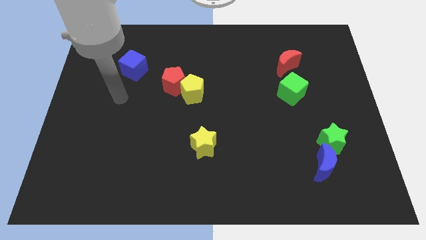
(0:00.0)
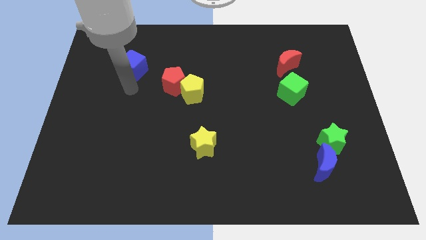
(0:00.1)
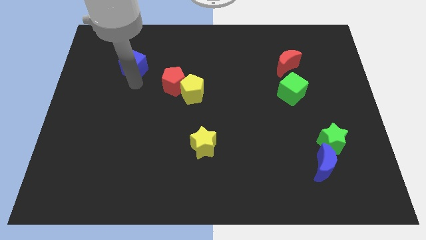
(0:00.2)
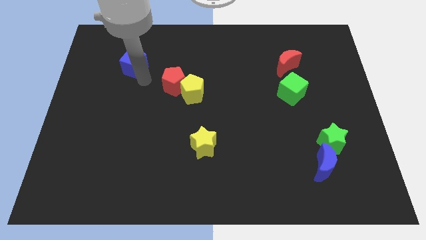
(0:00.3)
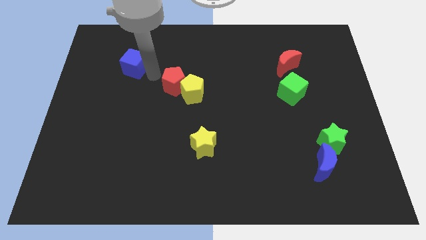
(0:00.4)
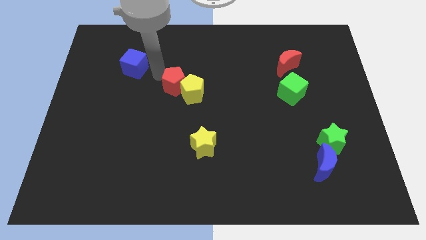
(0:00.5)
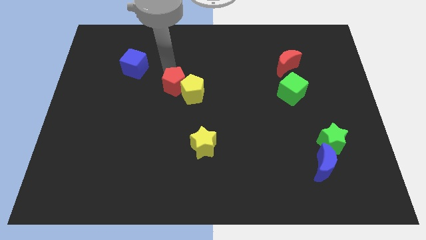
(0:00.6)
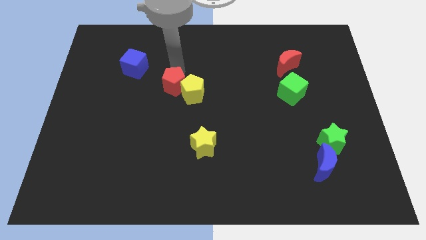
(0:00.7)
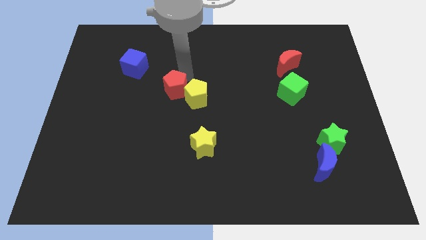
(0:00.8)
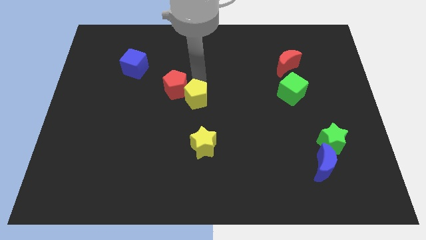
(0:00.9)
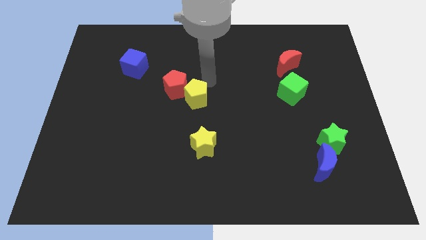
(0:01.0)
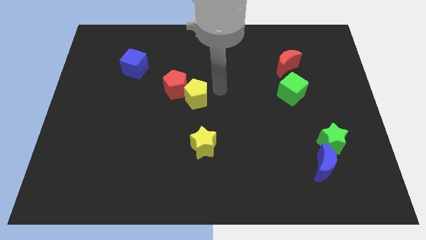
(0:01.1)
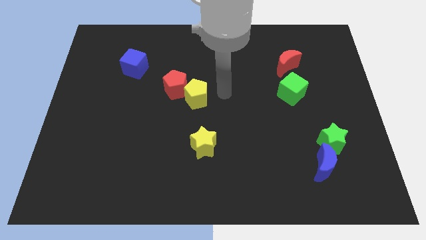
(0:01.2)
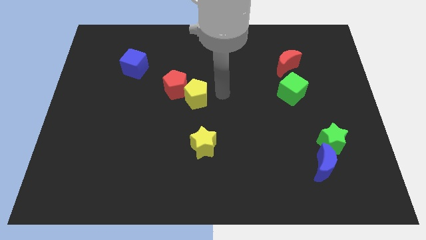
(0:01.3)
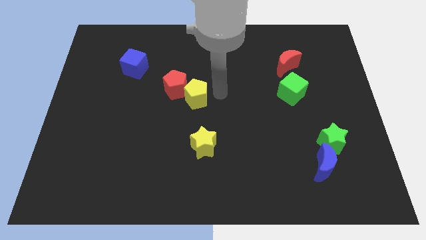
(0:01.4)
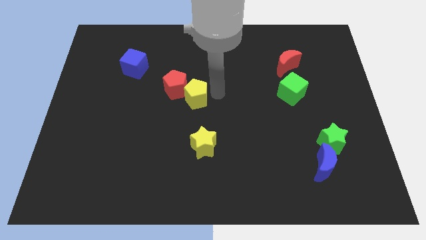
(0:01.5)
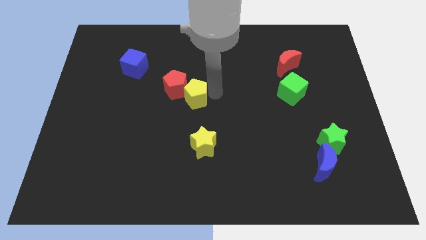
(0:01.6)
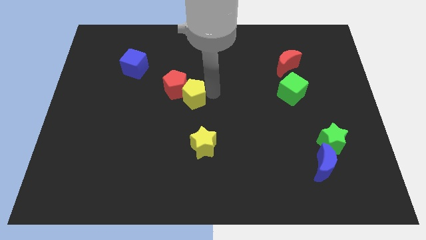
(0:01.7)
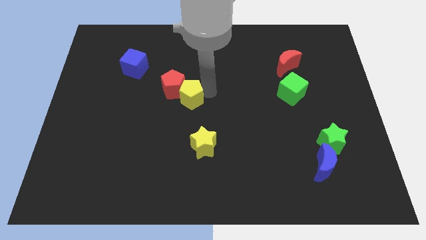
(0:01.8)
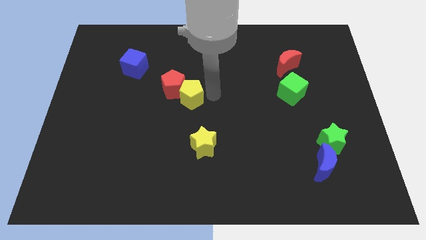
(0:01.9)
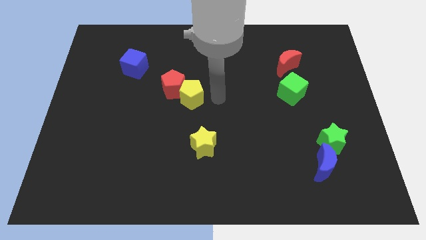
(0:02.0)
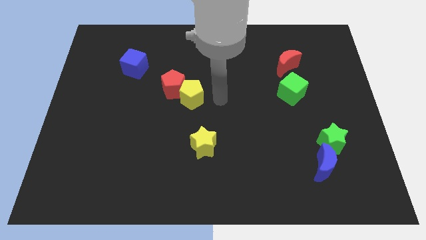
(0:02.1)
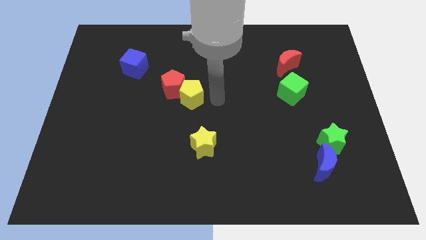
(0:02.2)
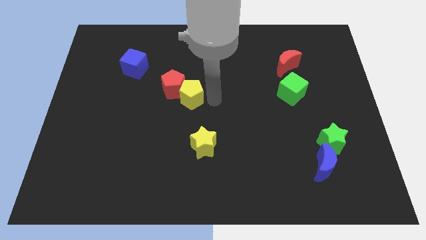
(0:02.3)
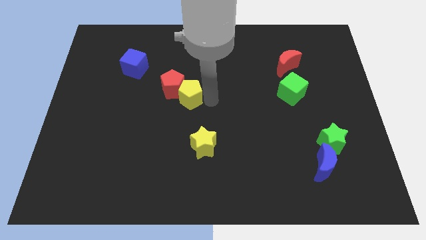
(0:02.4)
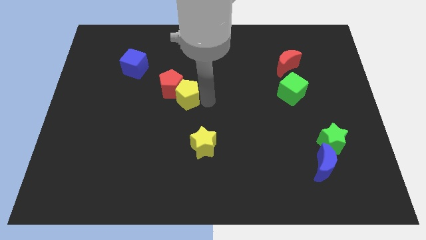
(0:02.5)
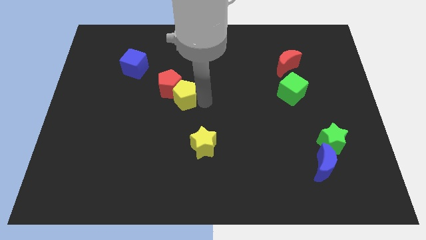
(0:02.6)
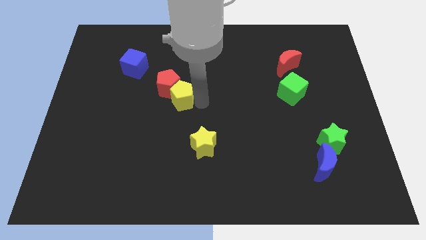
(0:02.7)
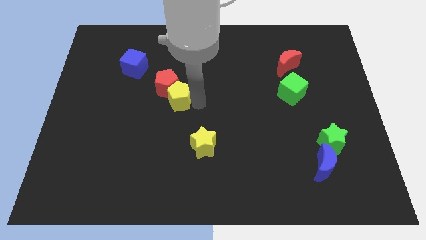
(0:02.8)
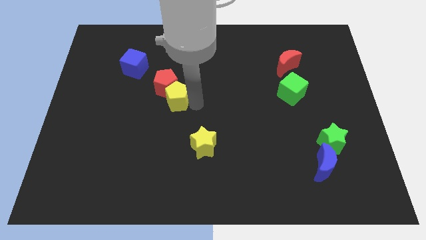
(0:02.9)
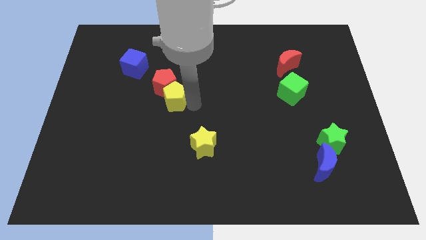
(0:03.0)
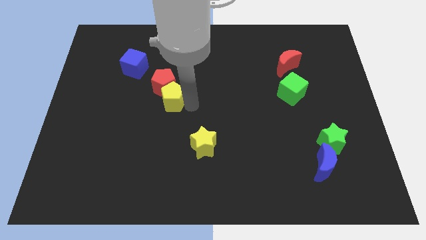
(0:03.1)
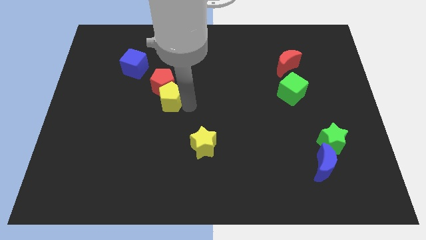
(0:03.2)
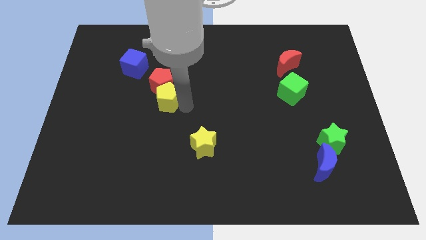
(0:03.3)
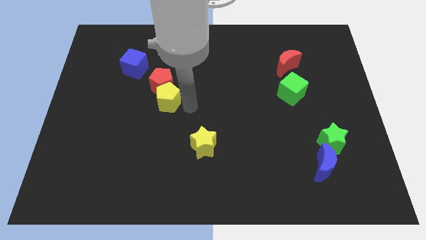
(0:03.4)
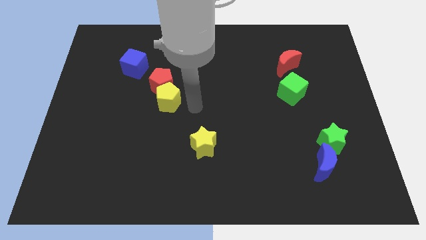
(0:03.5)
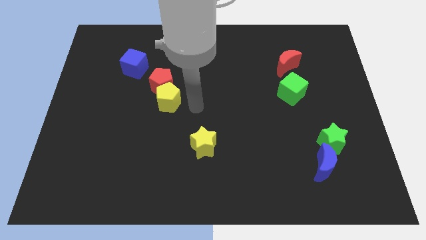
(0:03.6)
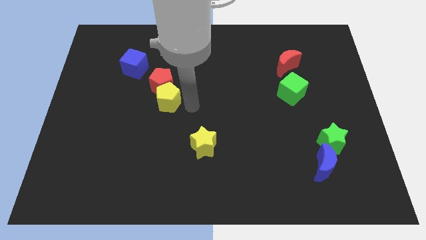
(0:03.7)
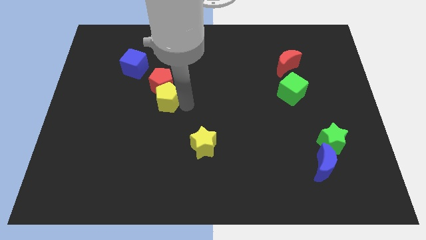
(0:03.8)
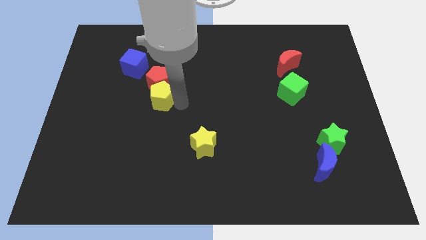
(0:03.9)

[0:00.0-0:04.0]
push the yellow pentagon to the left somewhat

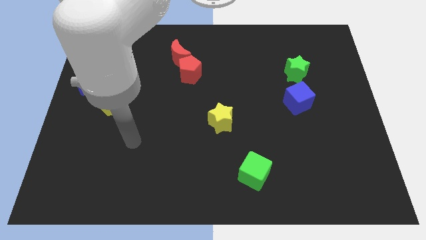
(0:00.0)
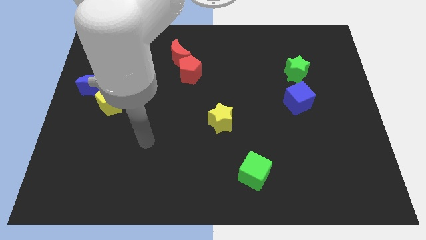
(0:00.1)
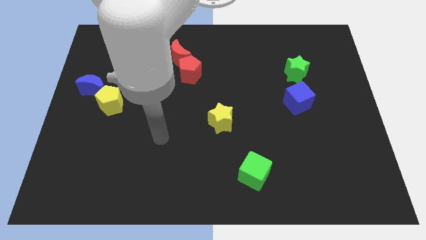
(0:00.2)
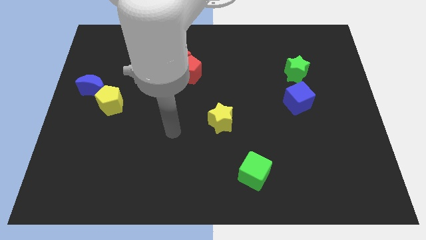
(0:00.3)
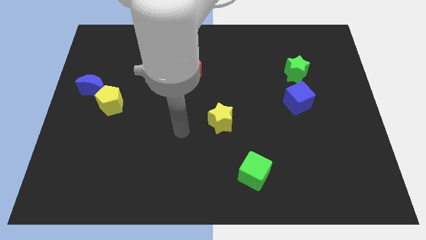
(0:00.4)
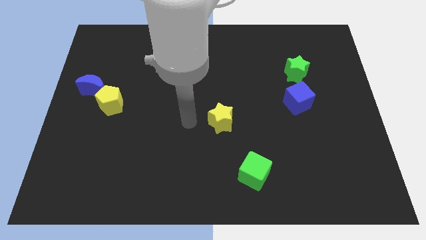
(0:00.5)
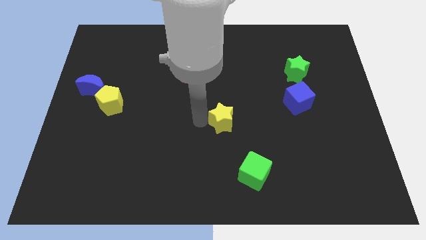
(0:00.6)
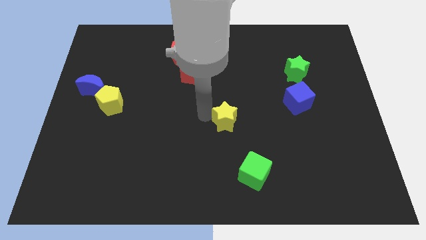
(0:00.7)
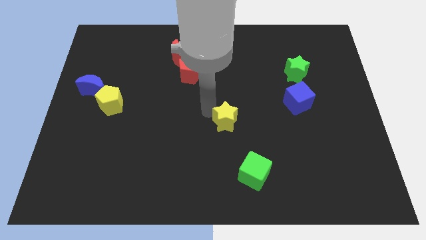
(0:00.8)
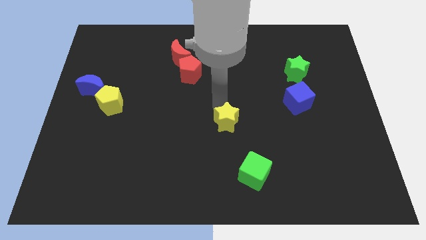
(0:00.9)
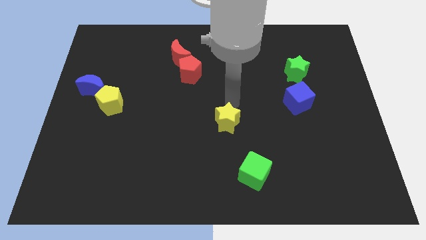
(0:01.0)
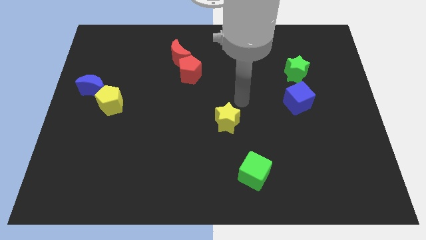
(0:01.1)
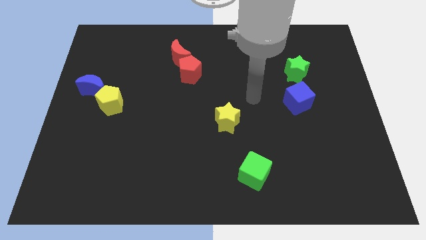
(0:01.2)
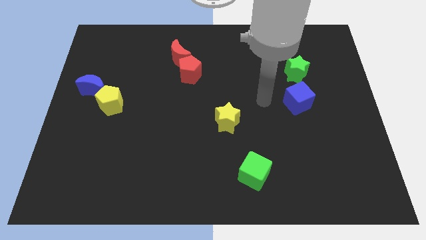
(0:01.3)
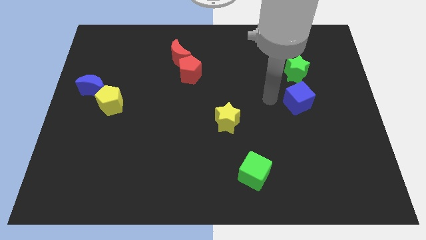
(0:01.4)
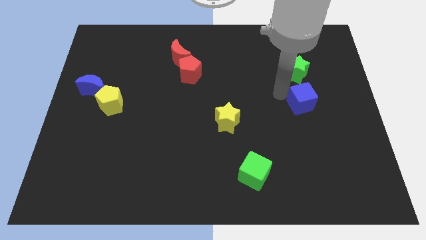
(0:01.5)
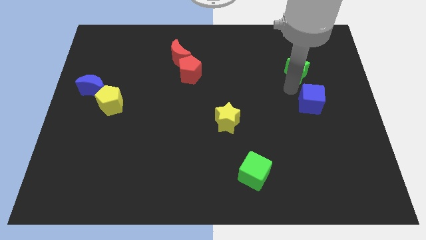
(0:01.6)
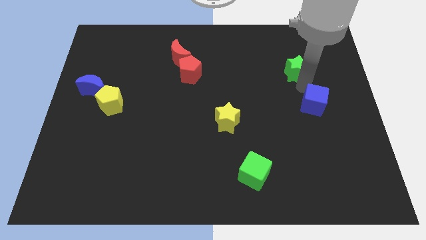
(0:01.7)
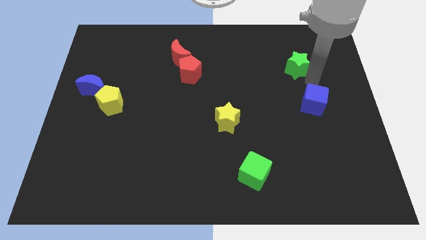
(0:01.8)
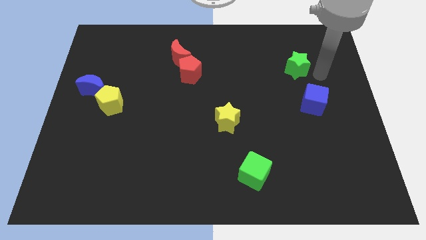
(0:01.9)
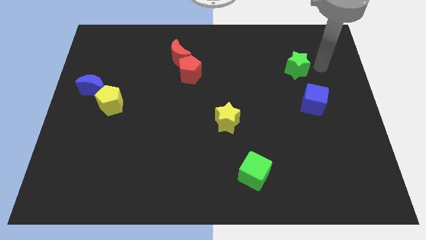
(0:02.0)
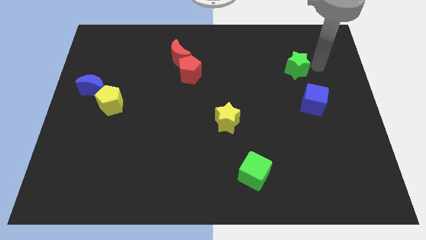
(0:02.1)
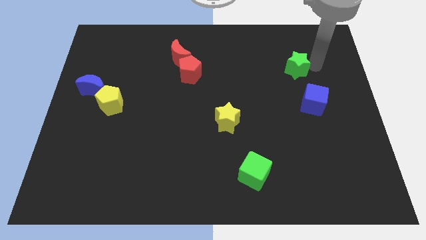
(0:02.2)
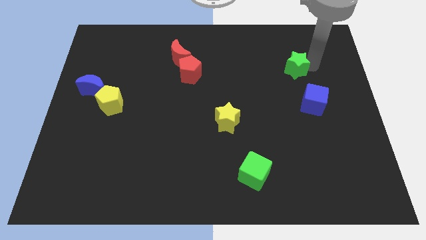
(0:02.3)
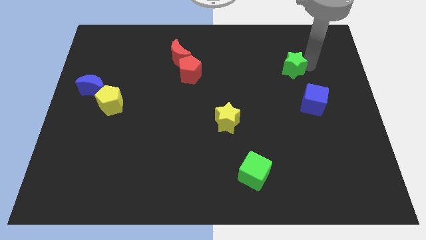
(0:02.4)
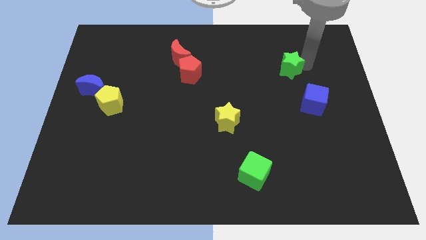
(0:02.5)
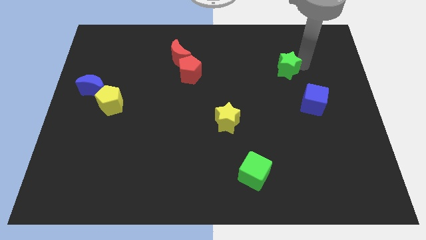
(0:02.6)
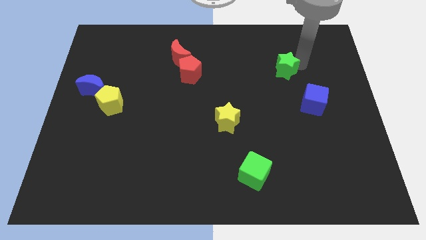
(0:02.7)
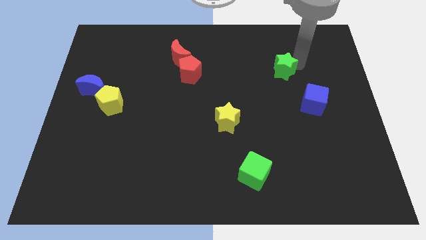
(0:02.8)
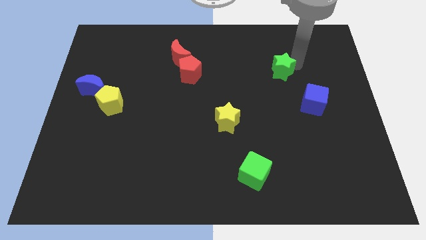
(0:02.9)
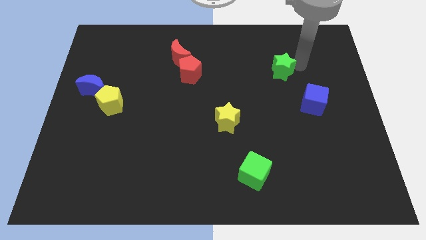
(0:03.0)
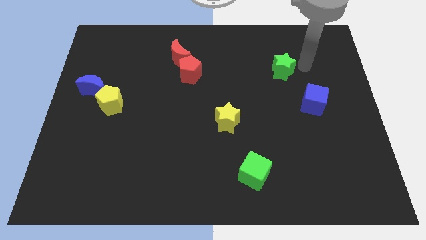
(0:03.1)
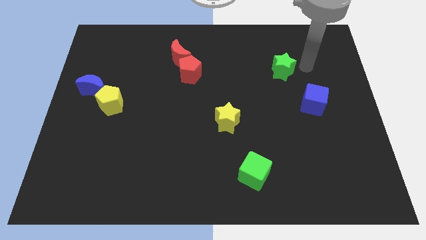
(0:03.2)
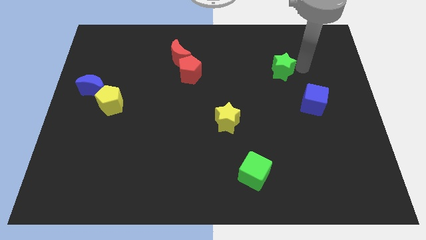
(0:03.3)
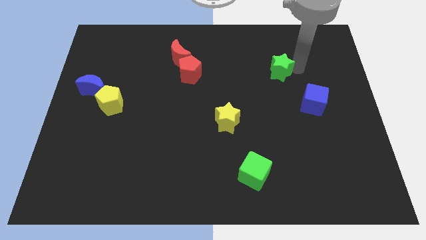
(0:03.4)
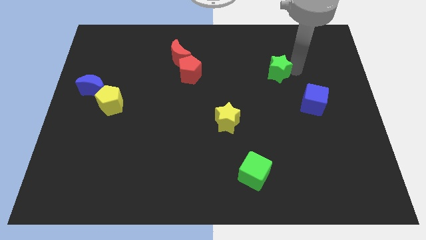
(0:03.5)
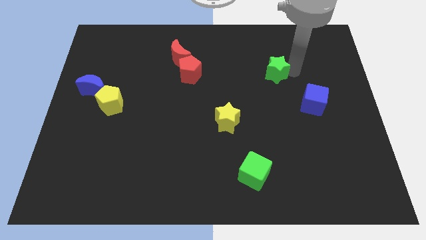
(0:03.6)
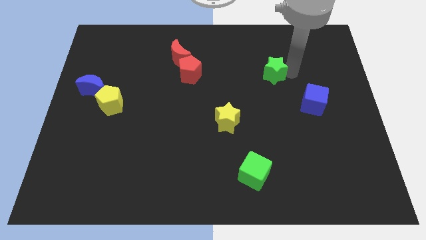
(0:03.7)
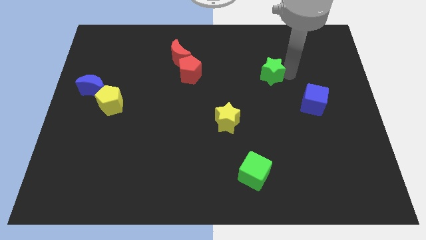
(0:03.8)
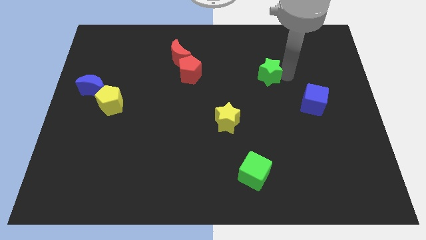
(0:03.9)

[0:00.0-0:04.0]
slightly slide the green star to the left

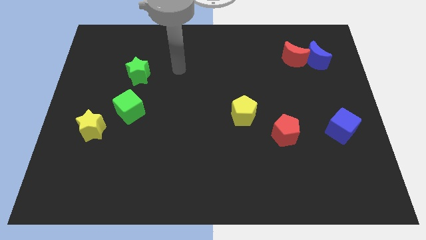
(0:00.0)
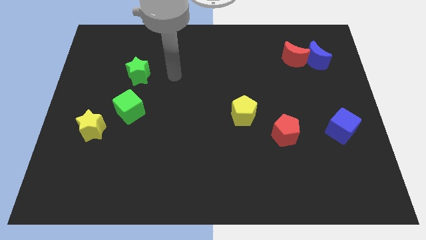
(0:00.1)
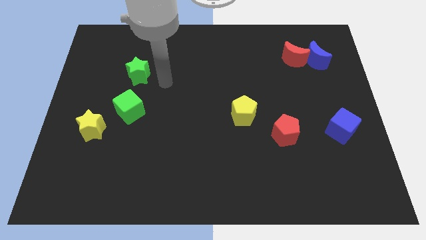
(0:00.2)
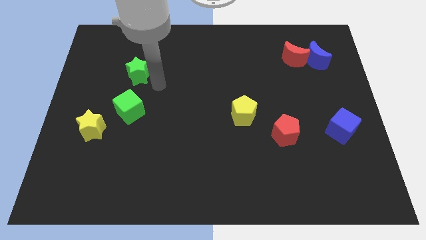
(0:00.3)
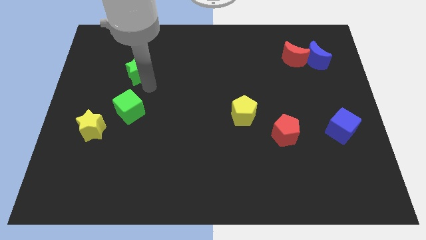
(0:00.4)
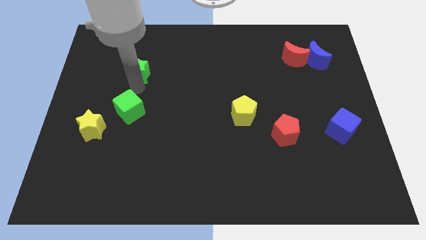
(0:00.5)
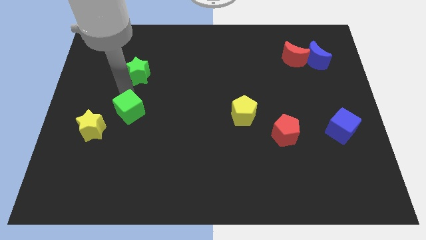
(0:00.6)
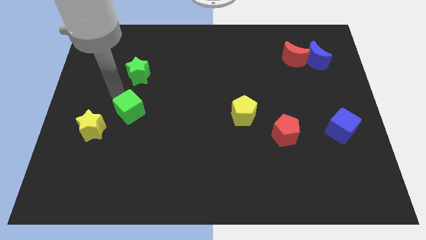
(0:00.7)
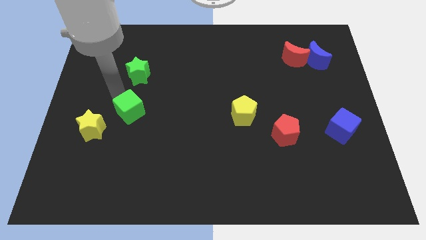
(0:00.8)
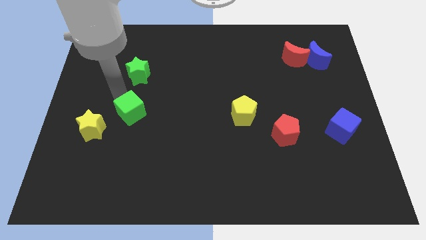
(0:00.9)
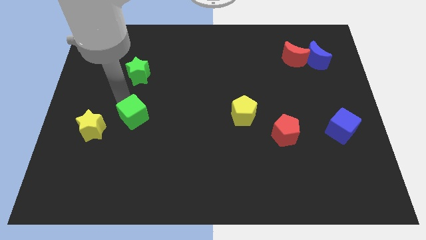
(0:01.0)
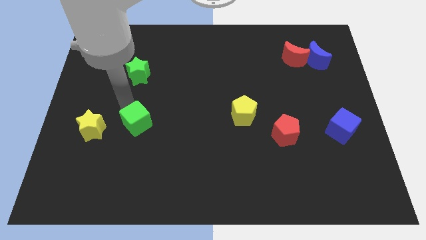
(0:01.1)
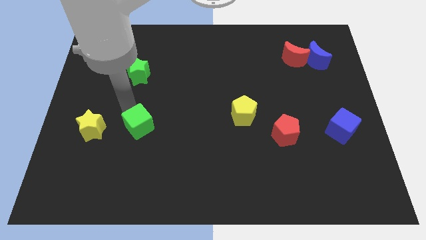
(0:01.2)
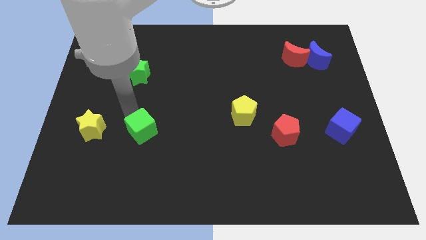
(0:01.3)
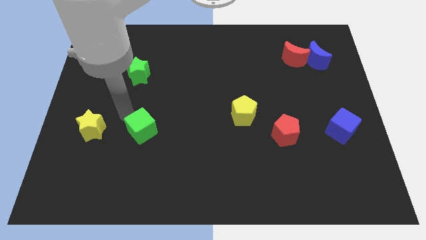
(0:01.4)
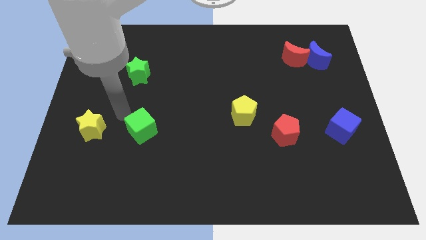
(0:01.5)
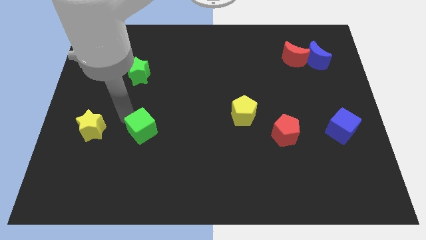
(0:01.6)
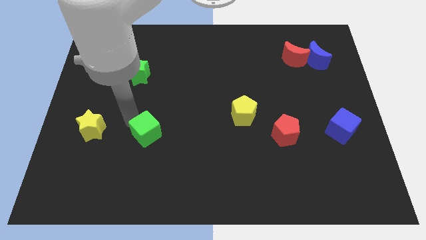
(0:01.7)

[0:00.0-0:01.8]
move the green cube diagonally downwards and right a bit
